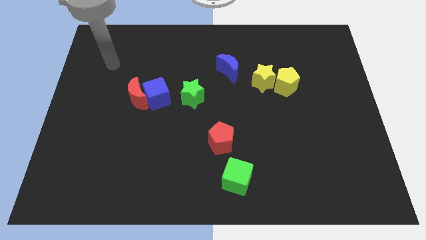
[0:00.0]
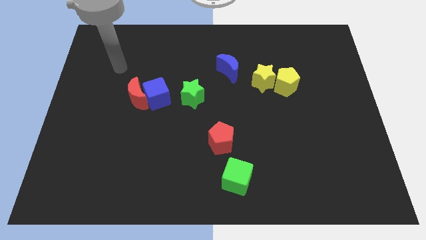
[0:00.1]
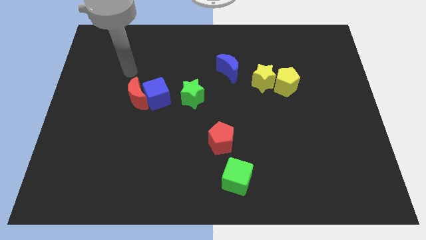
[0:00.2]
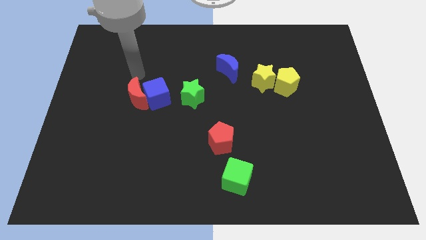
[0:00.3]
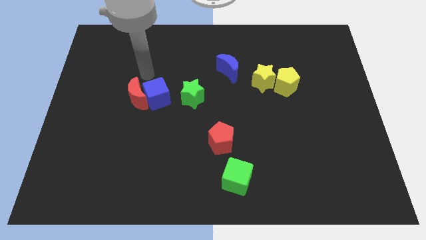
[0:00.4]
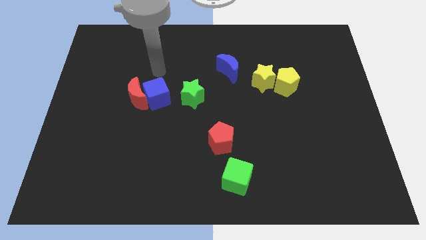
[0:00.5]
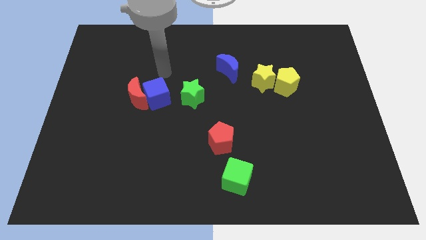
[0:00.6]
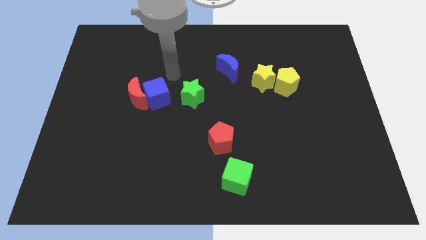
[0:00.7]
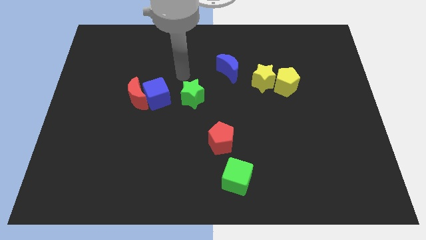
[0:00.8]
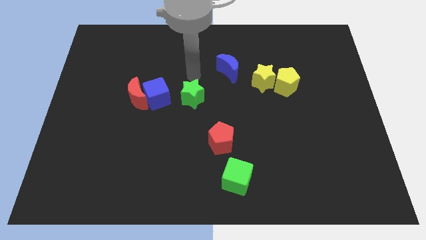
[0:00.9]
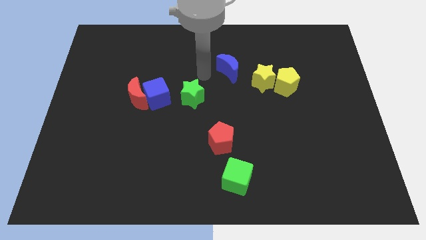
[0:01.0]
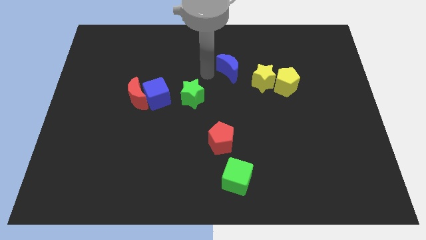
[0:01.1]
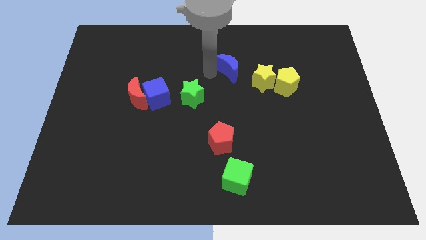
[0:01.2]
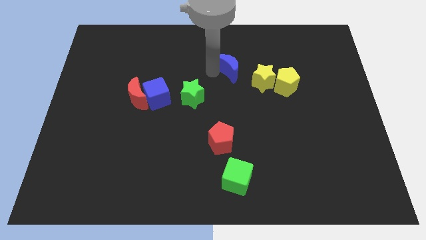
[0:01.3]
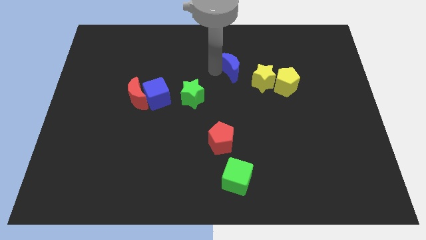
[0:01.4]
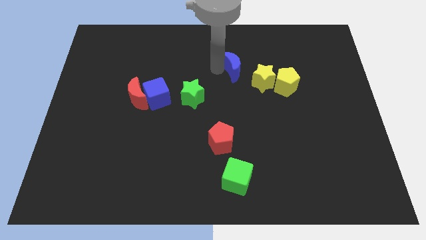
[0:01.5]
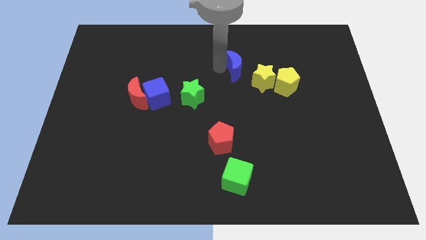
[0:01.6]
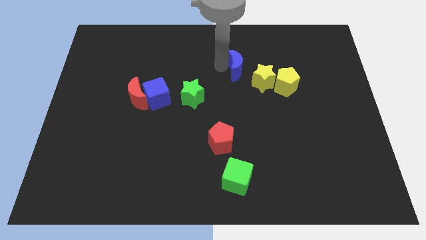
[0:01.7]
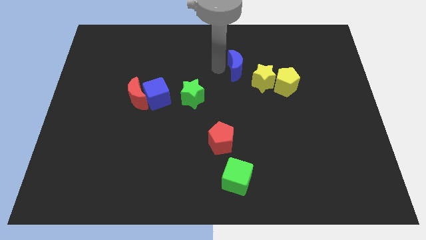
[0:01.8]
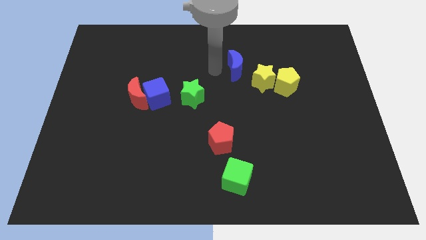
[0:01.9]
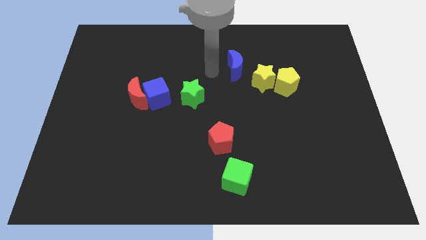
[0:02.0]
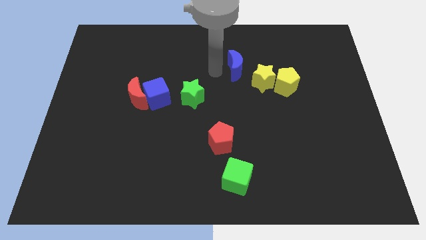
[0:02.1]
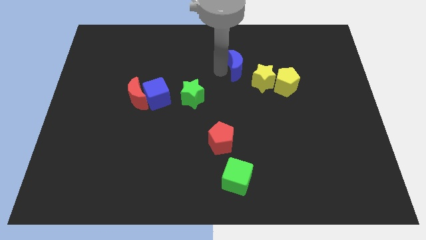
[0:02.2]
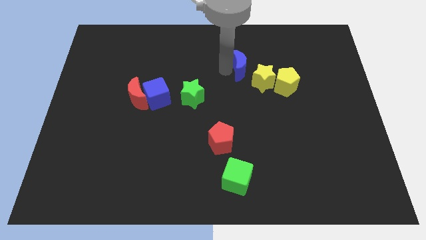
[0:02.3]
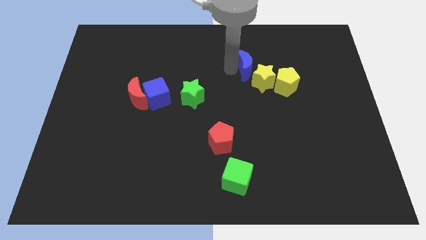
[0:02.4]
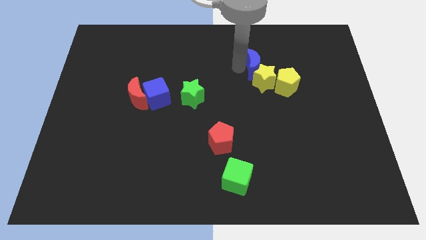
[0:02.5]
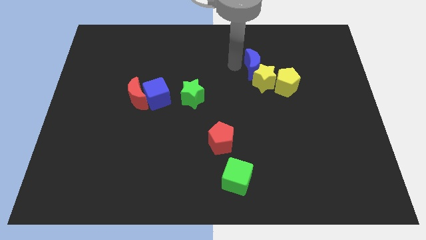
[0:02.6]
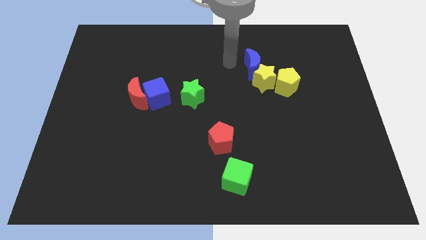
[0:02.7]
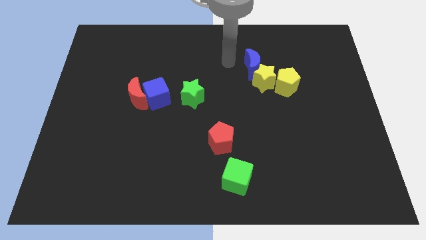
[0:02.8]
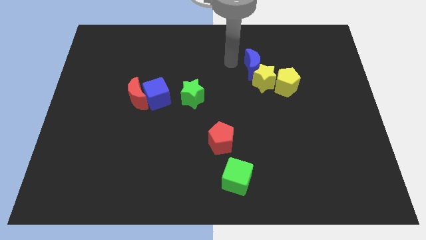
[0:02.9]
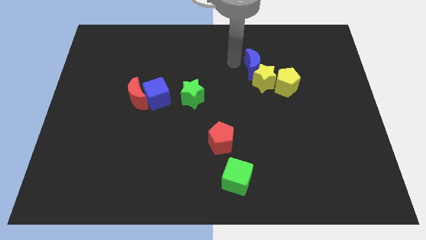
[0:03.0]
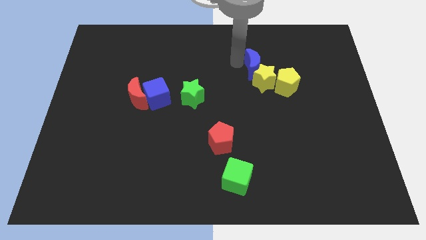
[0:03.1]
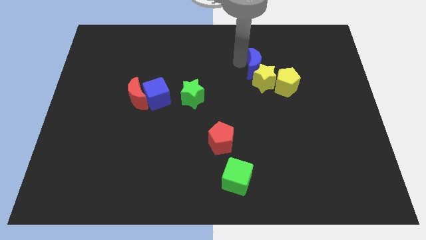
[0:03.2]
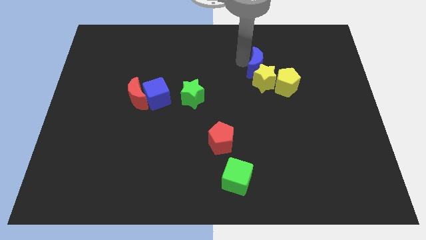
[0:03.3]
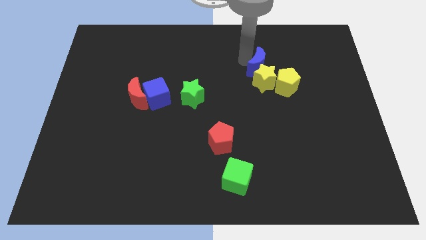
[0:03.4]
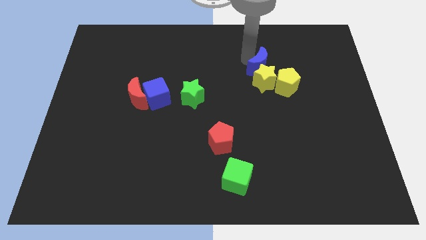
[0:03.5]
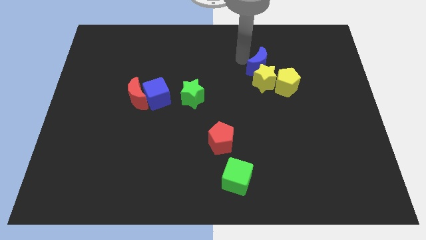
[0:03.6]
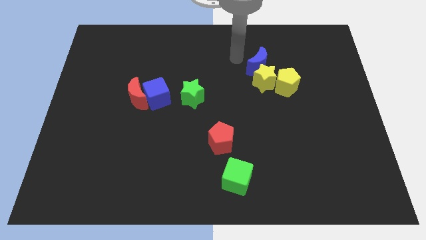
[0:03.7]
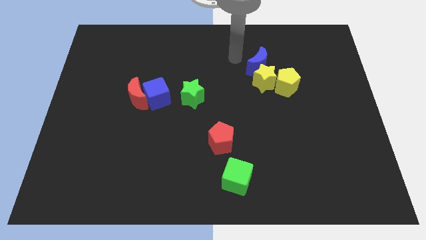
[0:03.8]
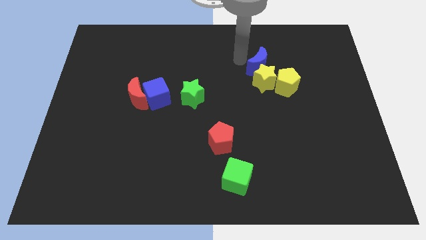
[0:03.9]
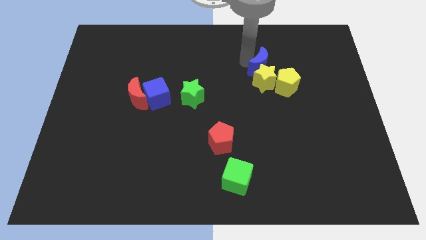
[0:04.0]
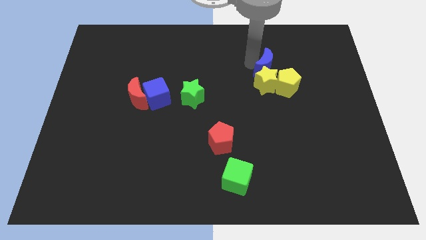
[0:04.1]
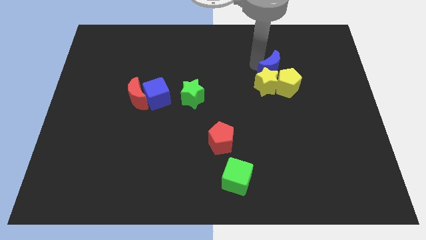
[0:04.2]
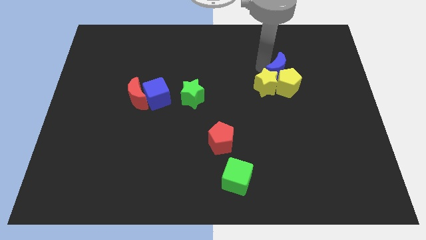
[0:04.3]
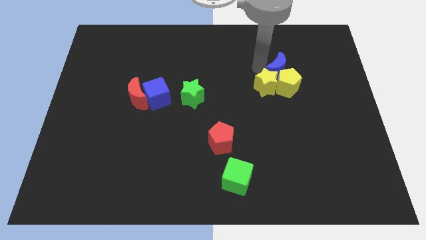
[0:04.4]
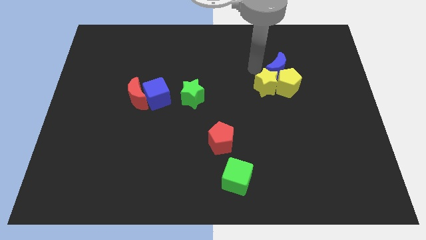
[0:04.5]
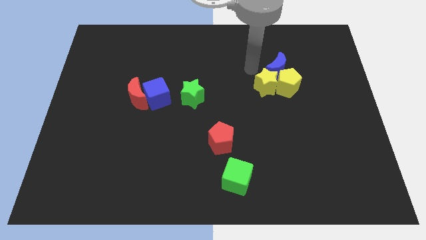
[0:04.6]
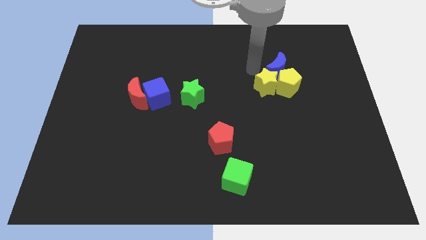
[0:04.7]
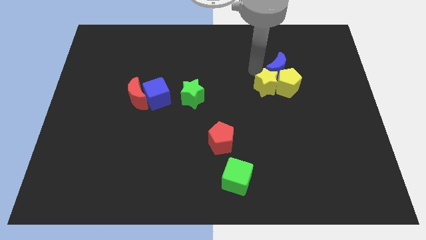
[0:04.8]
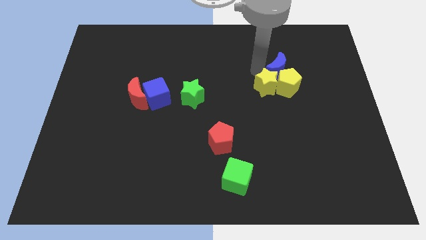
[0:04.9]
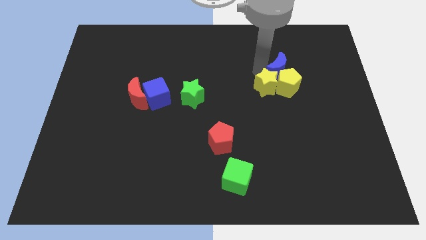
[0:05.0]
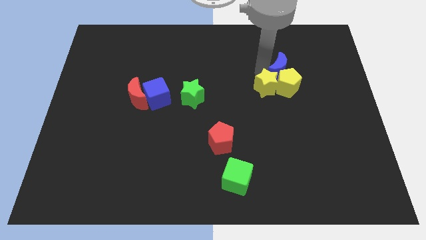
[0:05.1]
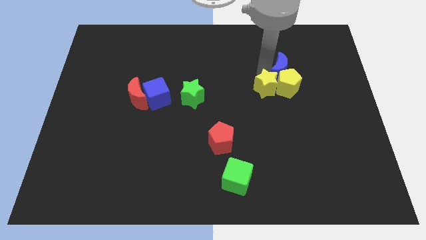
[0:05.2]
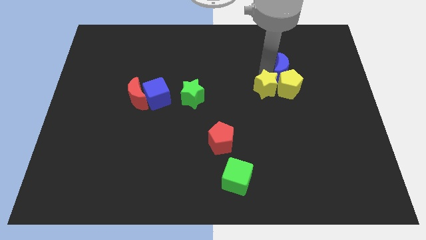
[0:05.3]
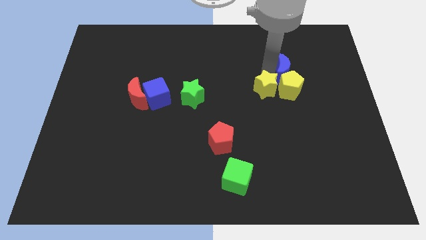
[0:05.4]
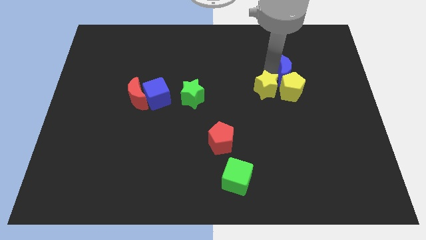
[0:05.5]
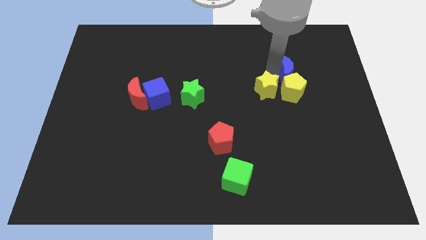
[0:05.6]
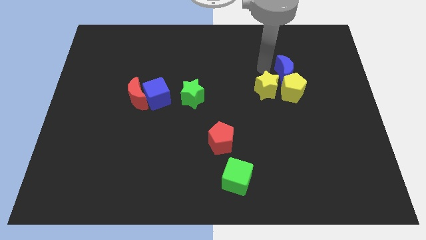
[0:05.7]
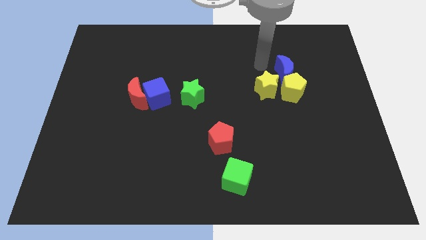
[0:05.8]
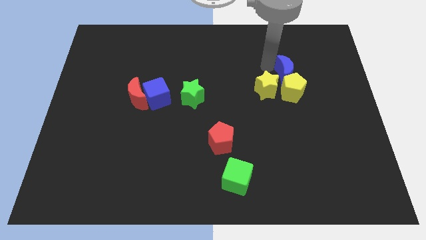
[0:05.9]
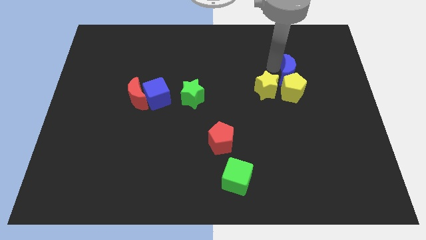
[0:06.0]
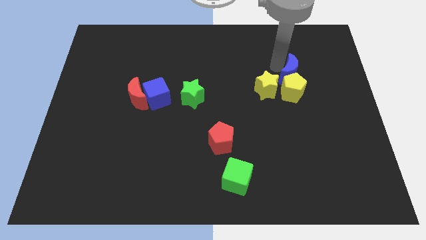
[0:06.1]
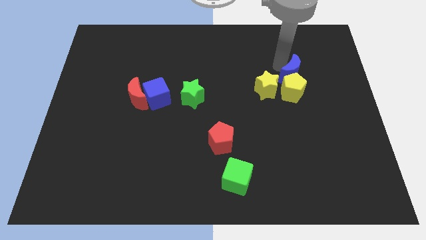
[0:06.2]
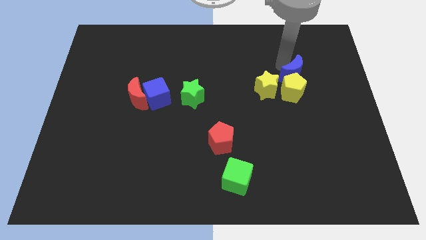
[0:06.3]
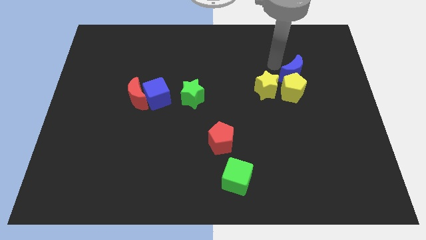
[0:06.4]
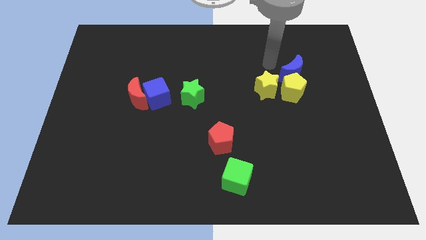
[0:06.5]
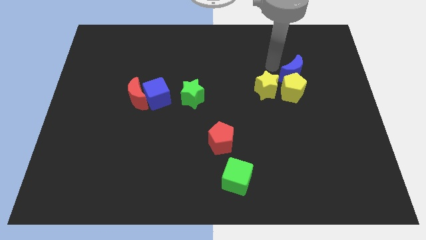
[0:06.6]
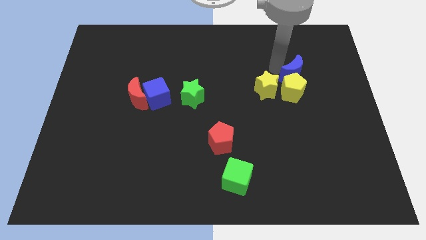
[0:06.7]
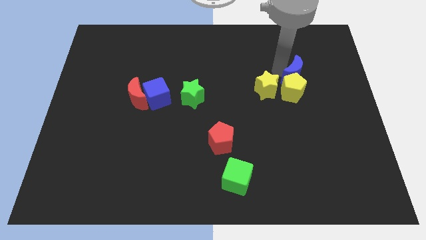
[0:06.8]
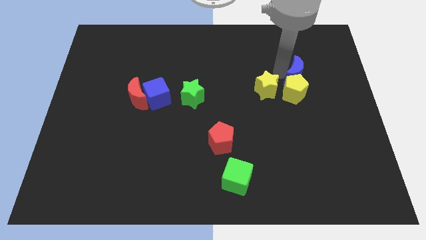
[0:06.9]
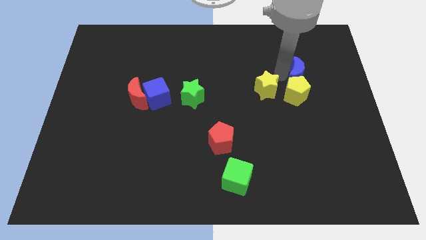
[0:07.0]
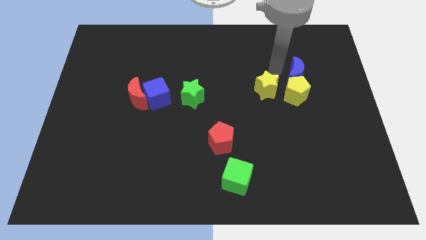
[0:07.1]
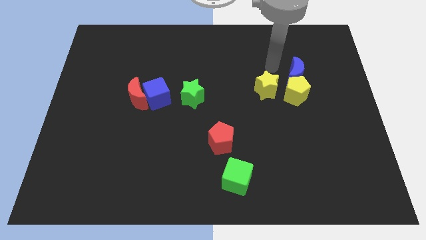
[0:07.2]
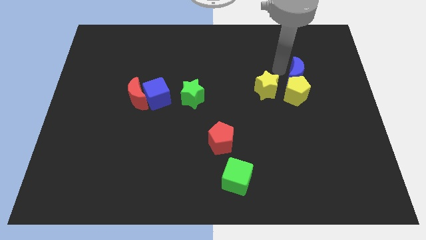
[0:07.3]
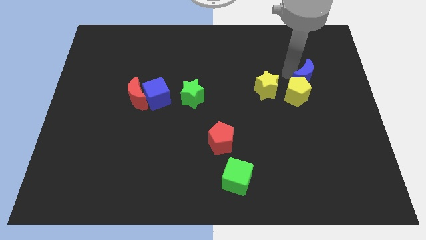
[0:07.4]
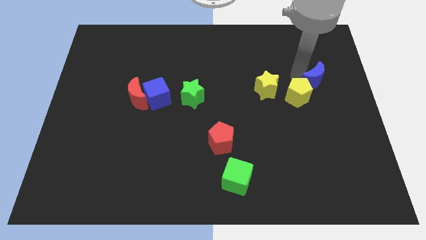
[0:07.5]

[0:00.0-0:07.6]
slide the blue moon just right of the yellow pentagon
